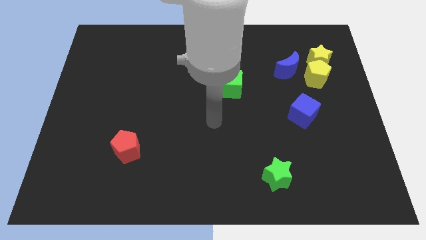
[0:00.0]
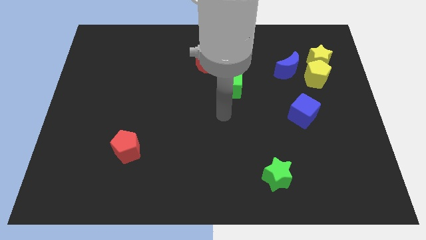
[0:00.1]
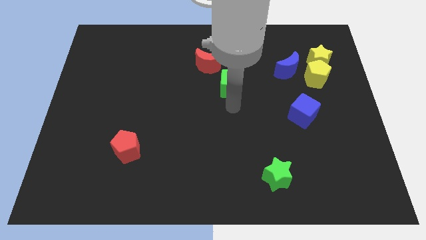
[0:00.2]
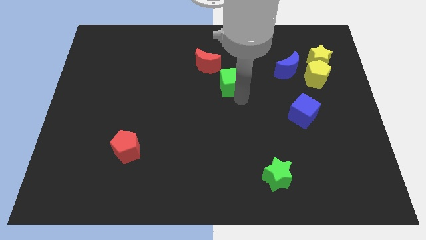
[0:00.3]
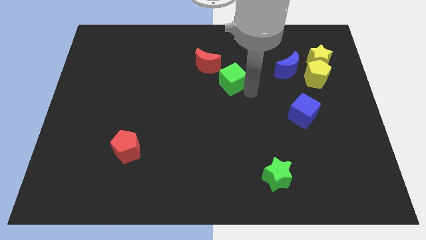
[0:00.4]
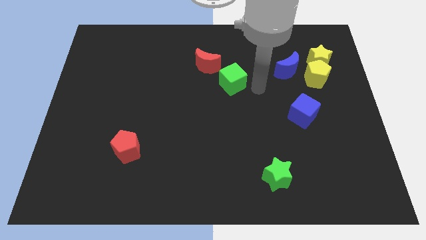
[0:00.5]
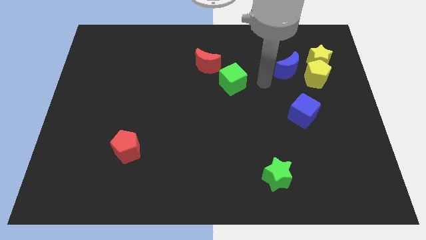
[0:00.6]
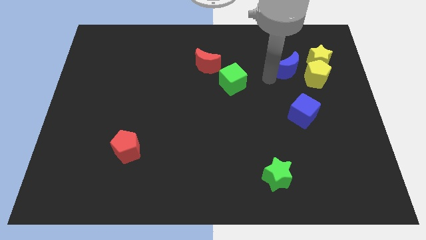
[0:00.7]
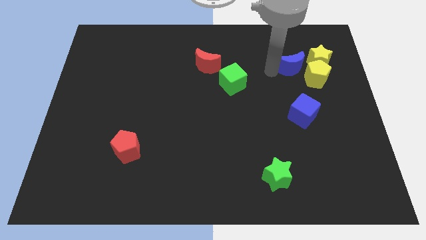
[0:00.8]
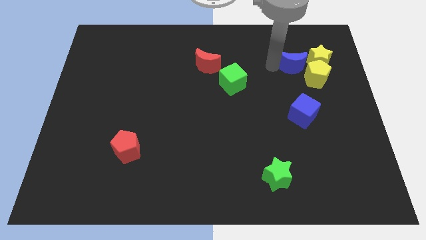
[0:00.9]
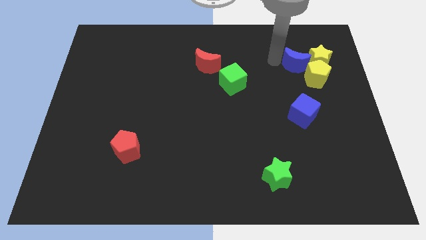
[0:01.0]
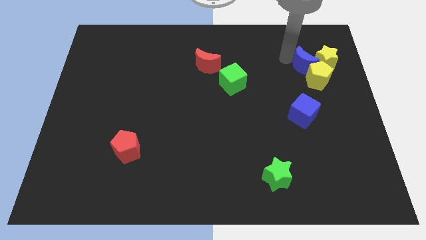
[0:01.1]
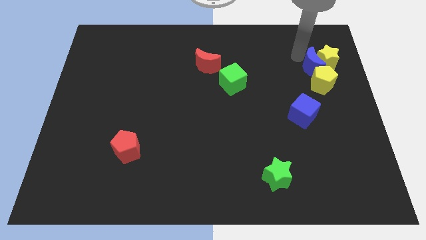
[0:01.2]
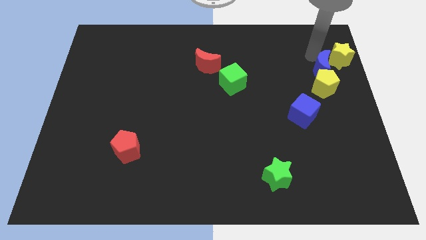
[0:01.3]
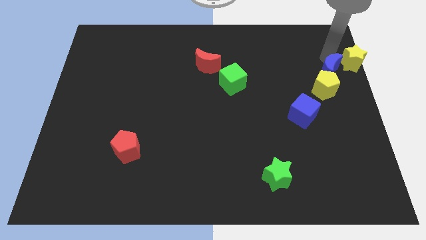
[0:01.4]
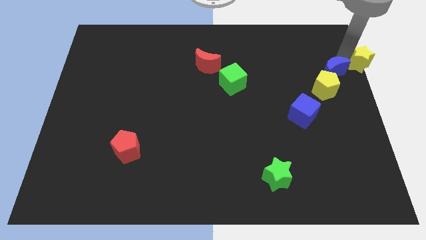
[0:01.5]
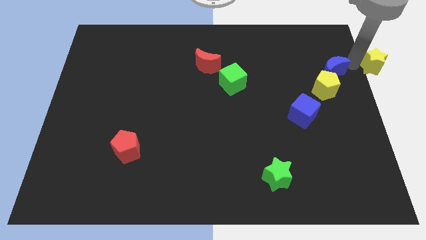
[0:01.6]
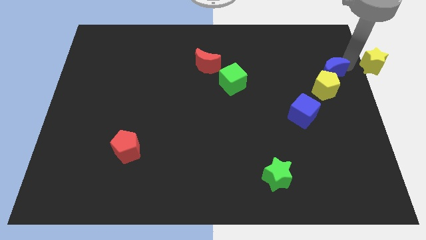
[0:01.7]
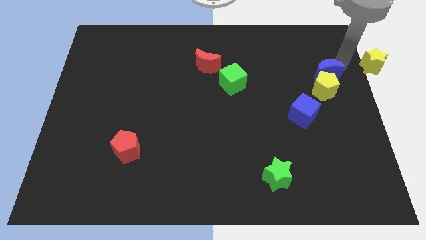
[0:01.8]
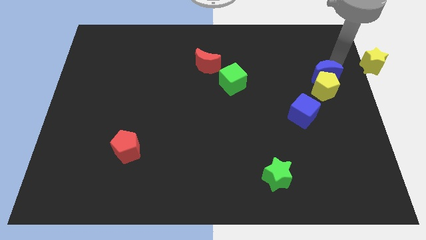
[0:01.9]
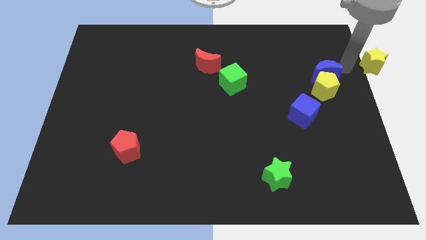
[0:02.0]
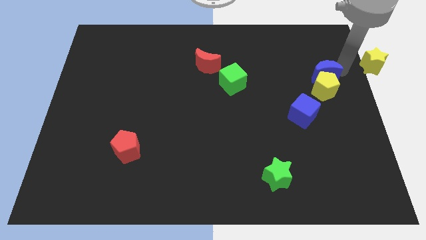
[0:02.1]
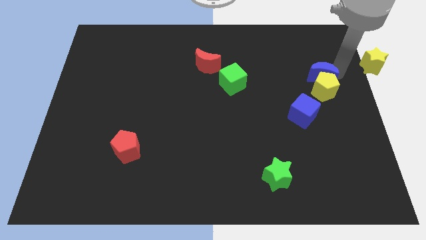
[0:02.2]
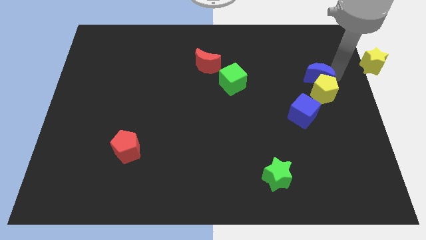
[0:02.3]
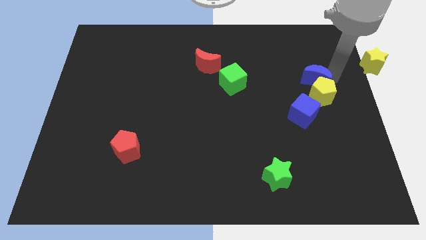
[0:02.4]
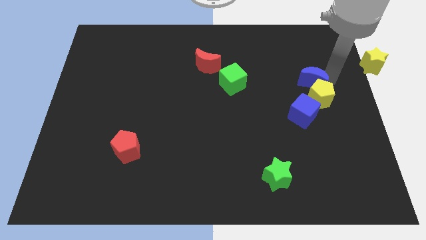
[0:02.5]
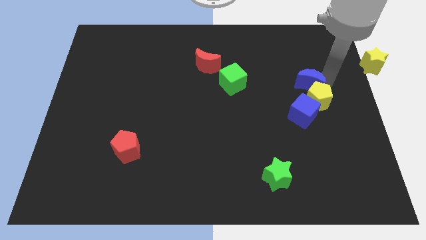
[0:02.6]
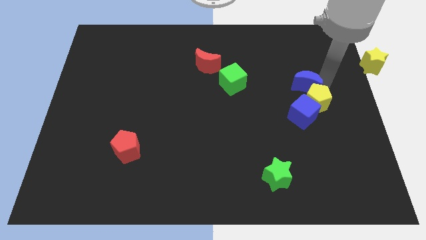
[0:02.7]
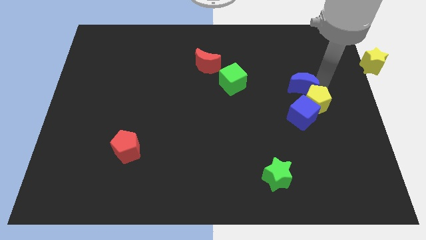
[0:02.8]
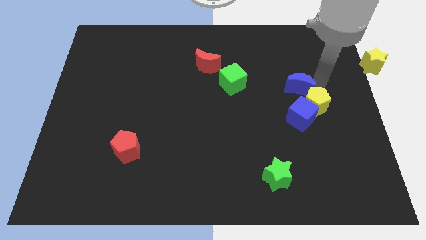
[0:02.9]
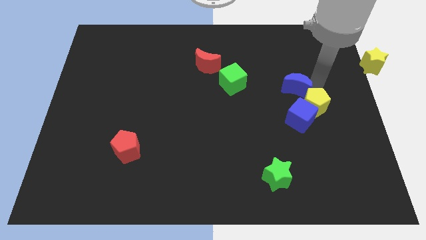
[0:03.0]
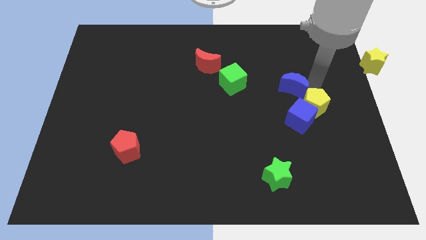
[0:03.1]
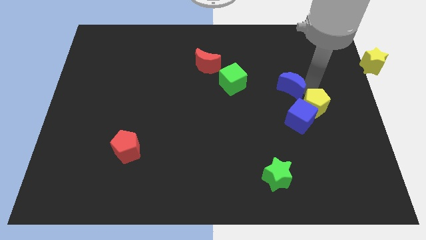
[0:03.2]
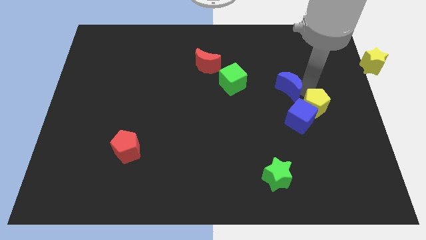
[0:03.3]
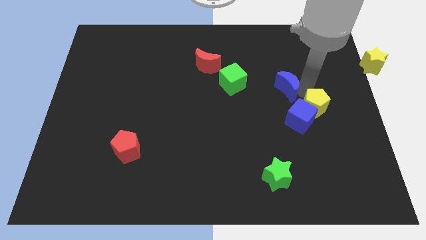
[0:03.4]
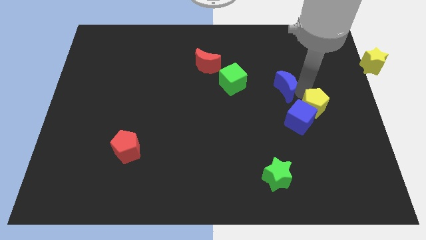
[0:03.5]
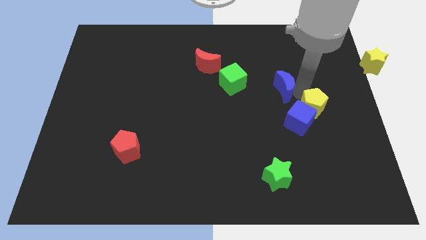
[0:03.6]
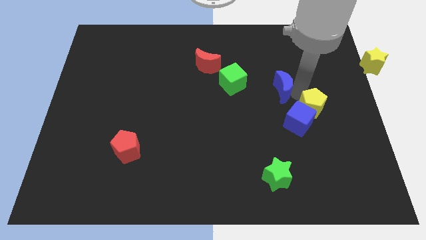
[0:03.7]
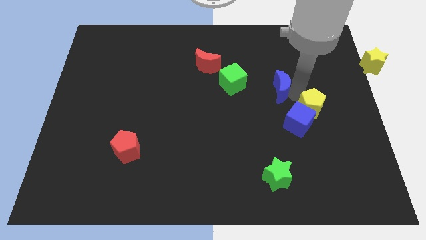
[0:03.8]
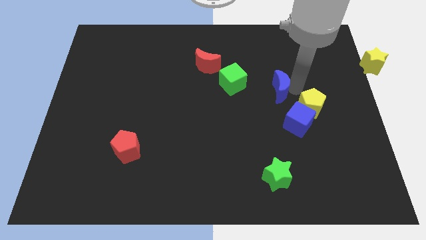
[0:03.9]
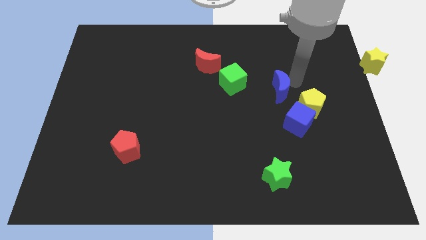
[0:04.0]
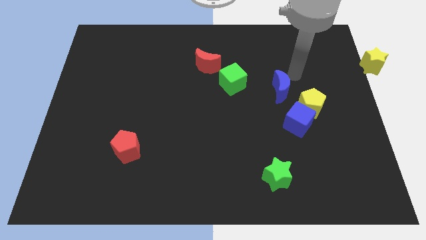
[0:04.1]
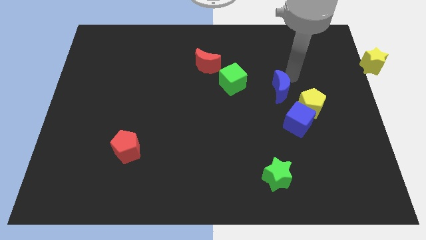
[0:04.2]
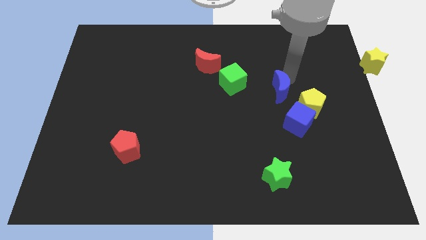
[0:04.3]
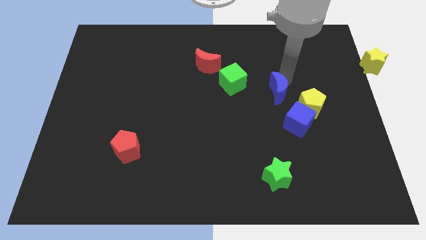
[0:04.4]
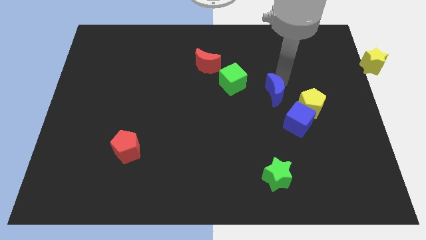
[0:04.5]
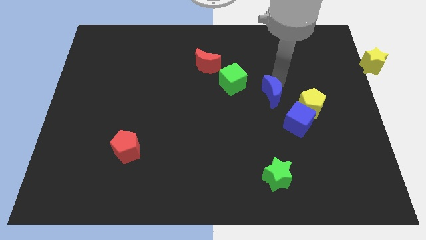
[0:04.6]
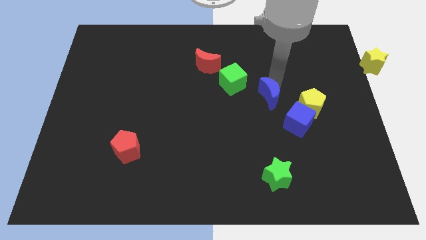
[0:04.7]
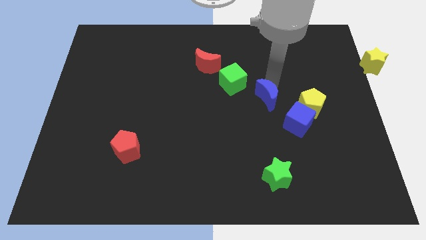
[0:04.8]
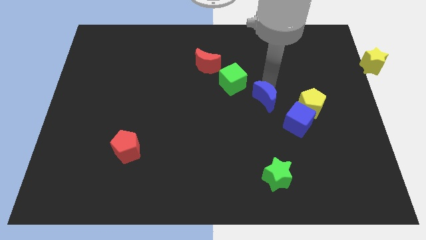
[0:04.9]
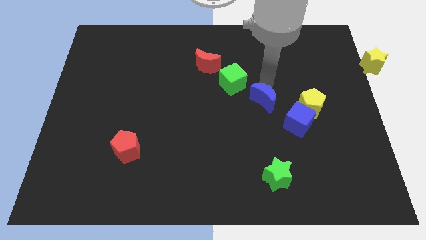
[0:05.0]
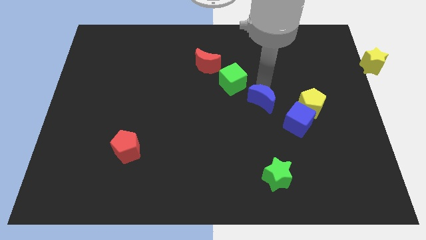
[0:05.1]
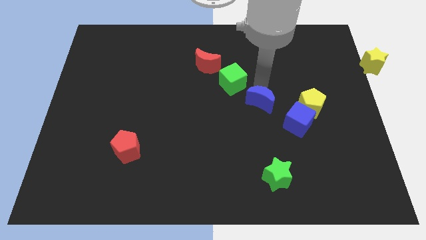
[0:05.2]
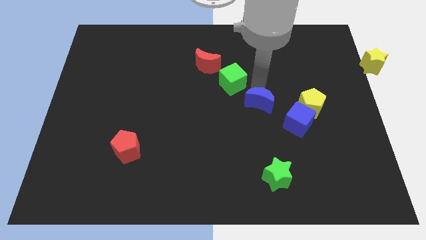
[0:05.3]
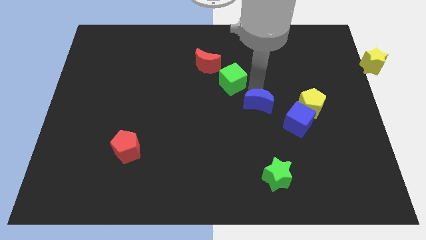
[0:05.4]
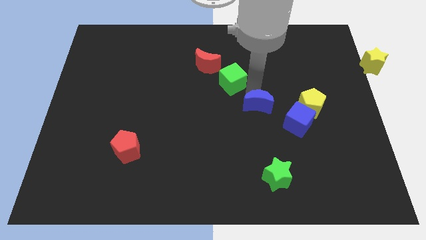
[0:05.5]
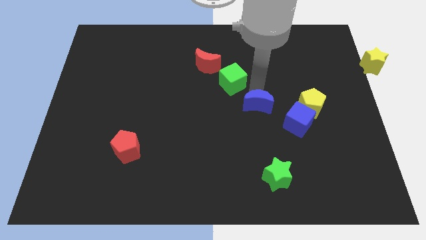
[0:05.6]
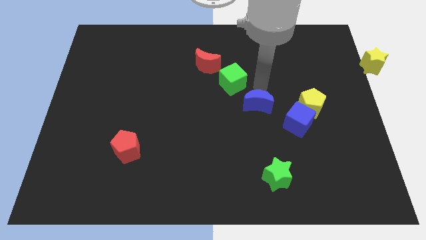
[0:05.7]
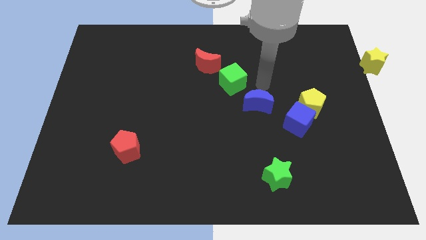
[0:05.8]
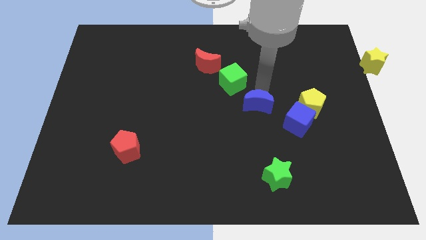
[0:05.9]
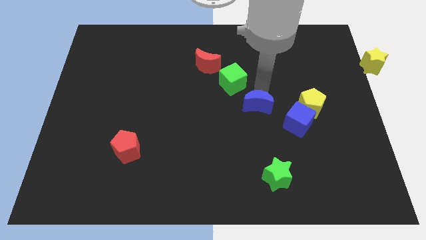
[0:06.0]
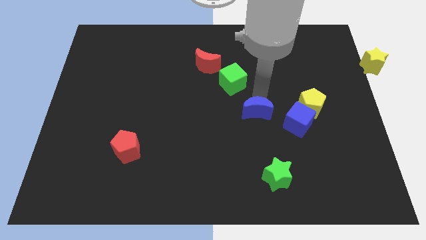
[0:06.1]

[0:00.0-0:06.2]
move the blue moon to the left of the blue cube

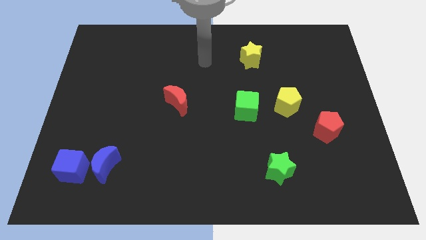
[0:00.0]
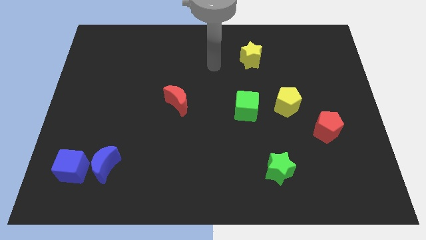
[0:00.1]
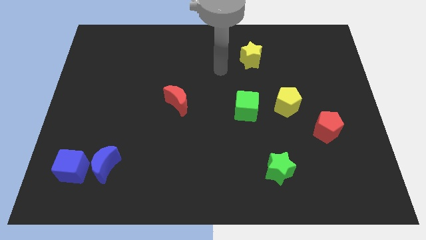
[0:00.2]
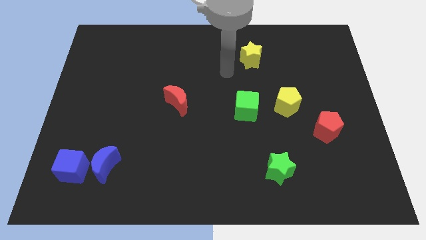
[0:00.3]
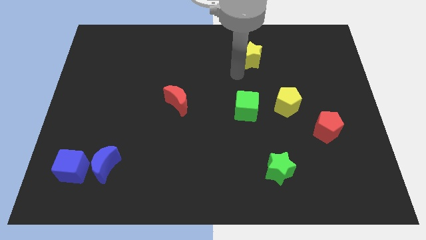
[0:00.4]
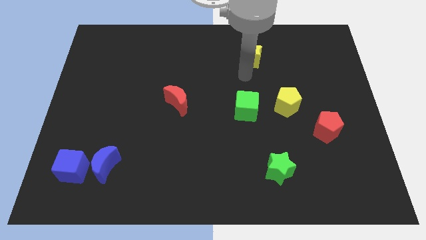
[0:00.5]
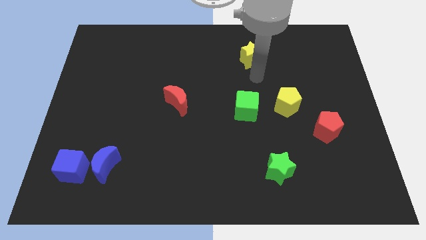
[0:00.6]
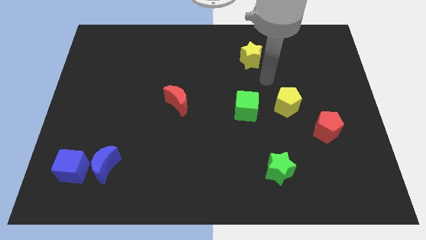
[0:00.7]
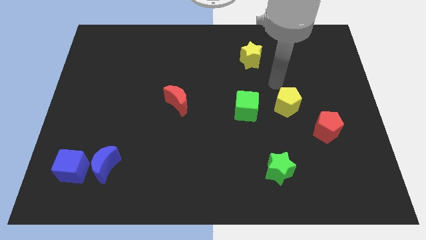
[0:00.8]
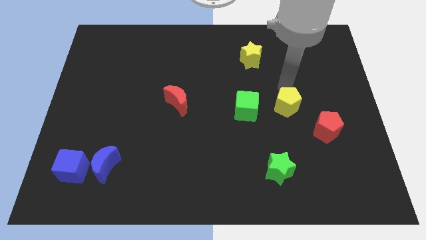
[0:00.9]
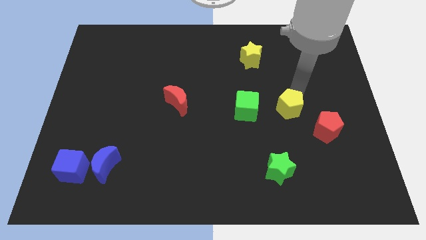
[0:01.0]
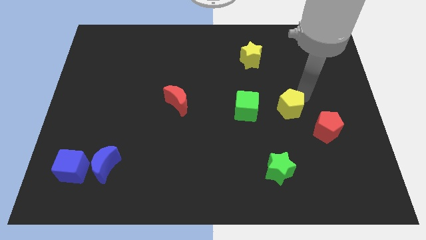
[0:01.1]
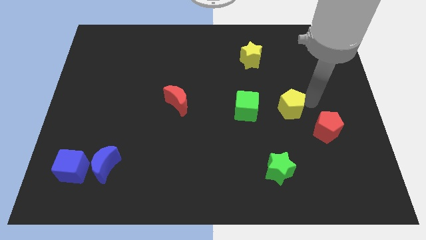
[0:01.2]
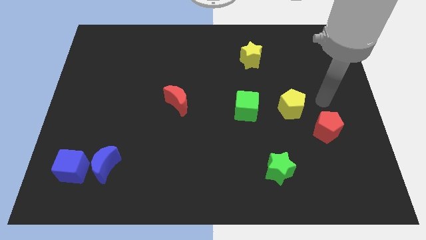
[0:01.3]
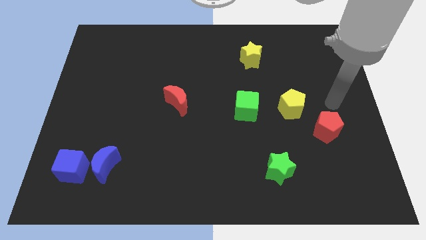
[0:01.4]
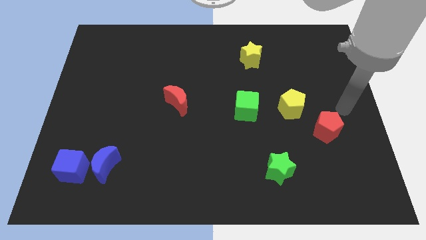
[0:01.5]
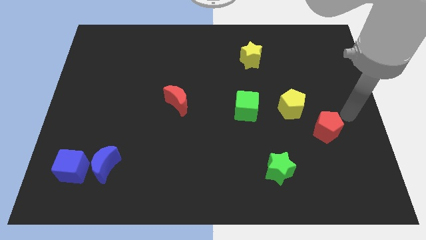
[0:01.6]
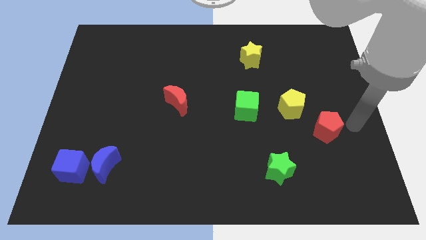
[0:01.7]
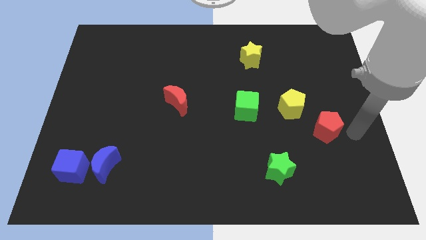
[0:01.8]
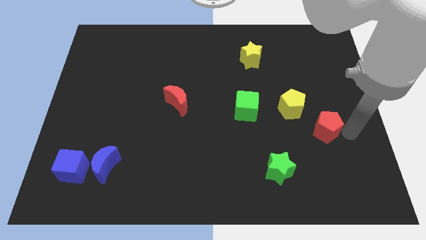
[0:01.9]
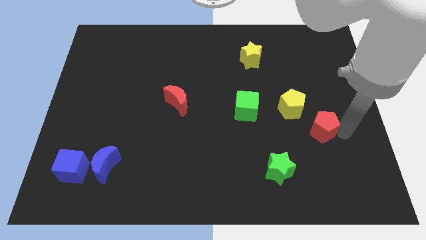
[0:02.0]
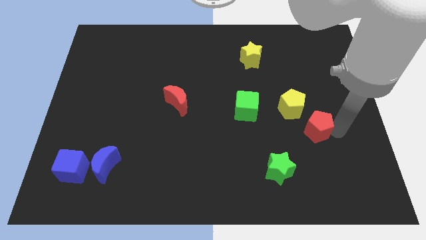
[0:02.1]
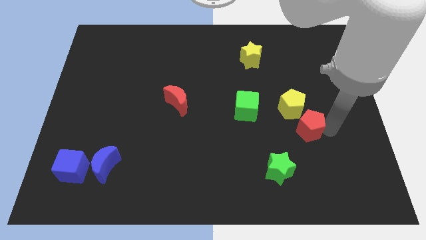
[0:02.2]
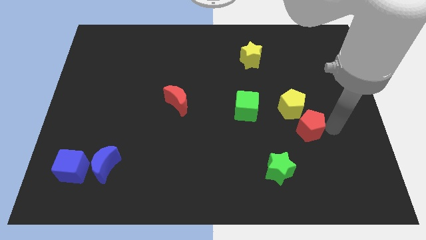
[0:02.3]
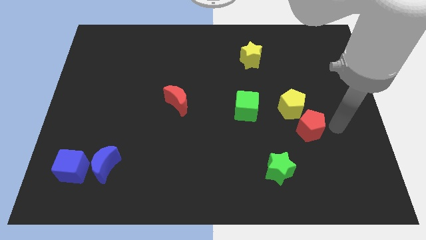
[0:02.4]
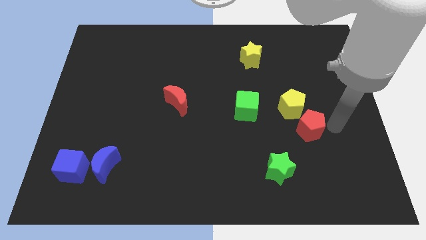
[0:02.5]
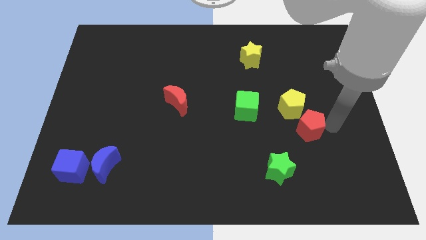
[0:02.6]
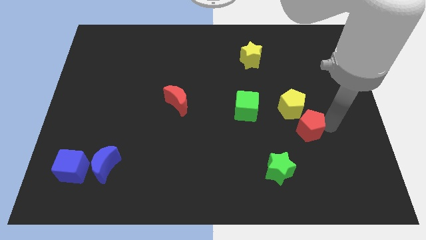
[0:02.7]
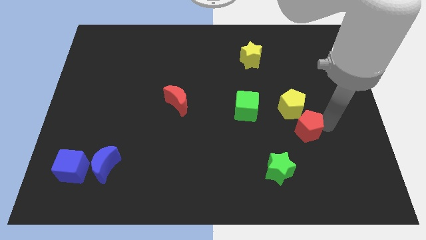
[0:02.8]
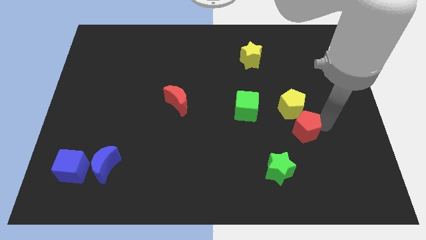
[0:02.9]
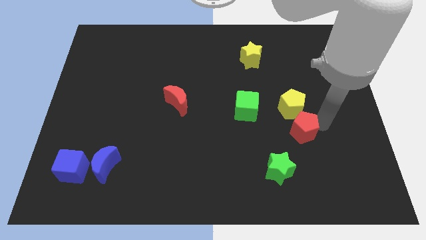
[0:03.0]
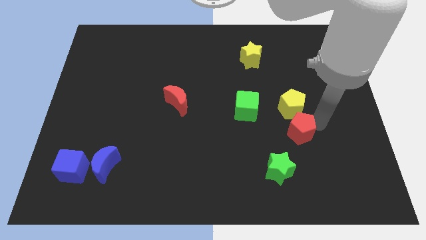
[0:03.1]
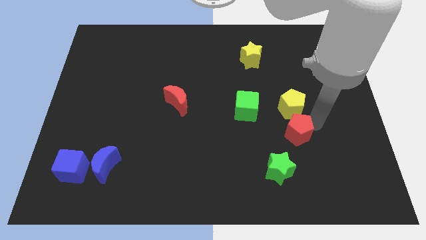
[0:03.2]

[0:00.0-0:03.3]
move the red pentagon to the bottom left side of the yellow pentagon
